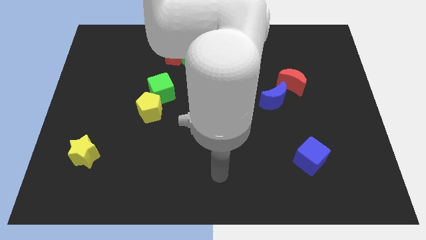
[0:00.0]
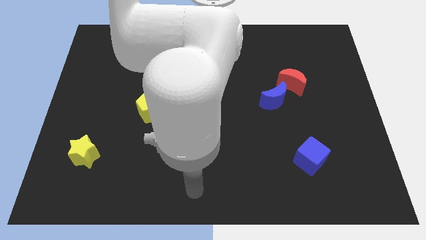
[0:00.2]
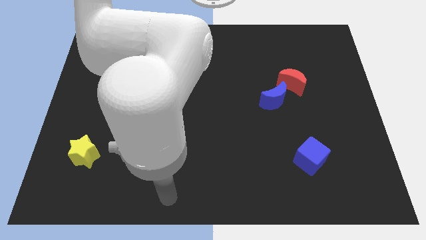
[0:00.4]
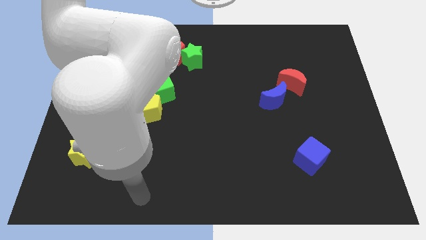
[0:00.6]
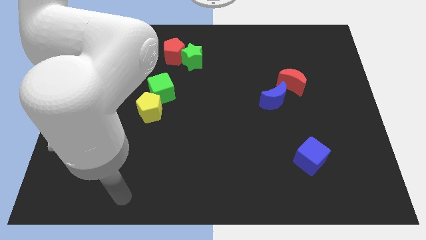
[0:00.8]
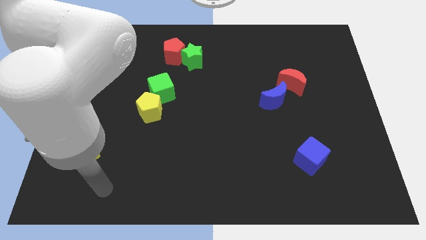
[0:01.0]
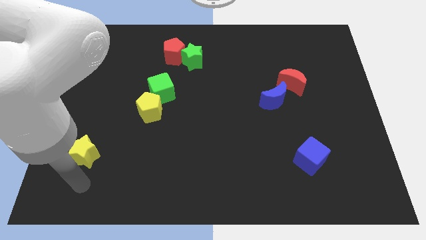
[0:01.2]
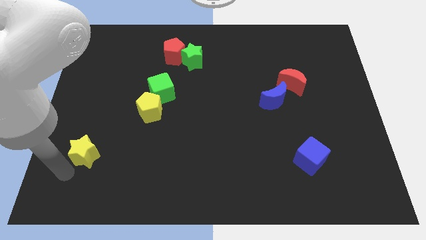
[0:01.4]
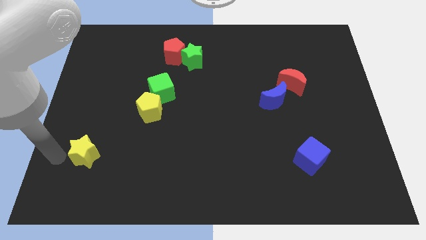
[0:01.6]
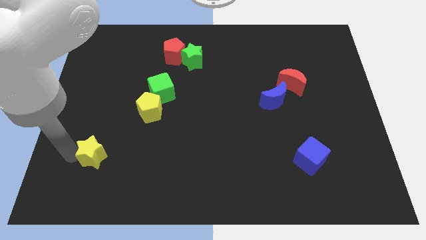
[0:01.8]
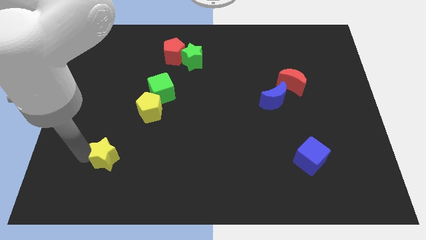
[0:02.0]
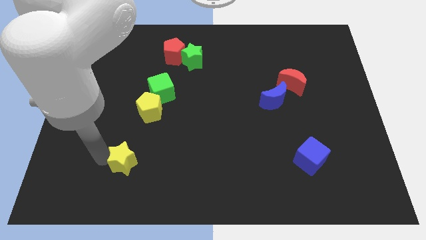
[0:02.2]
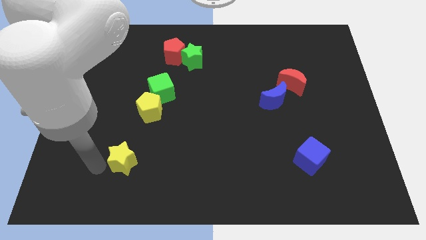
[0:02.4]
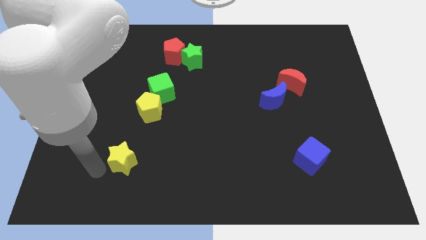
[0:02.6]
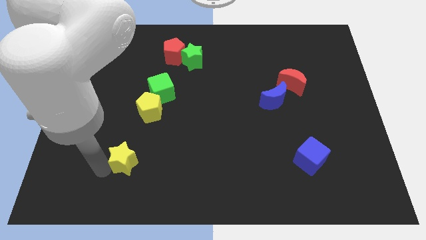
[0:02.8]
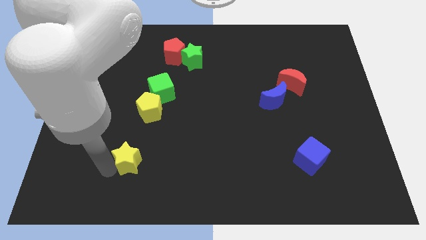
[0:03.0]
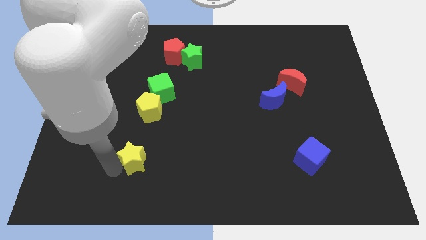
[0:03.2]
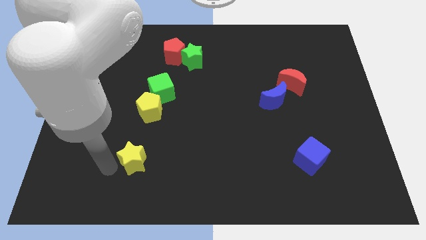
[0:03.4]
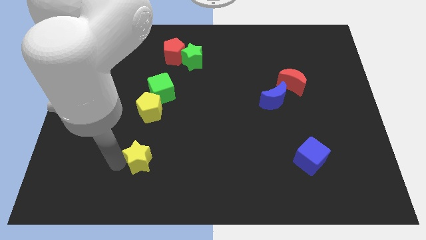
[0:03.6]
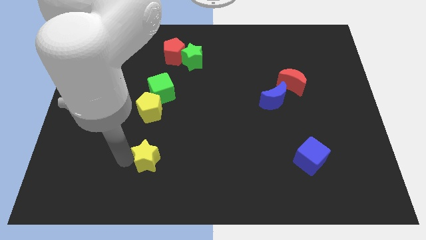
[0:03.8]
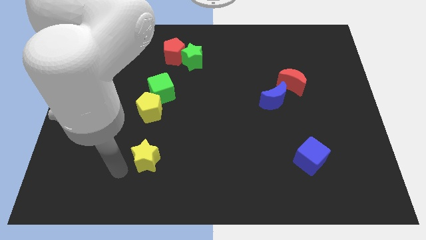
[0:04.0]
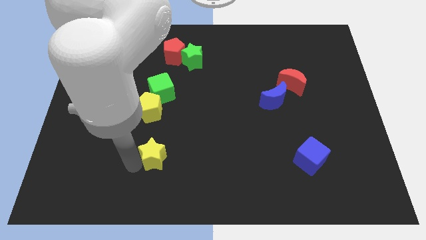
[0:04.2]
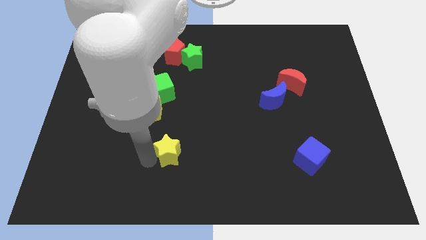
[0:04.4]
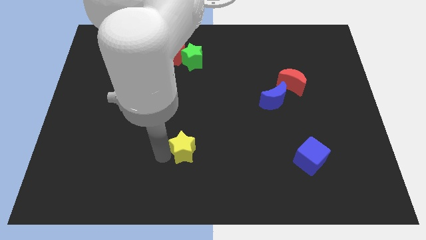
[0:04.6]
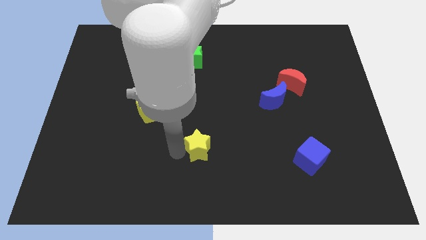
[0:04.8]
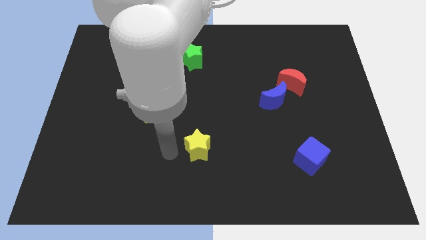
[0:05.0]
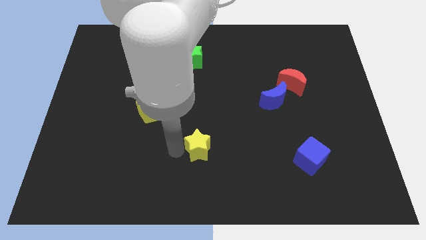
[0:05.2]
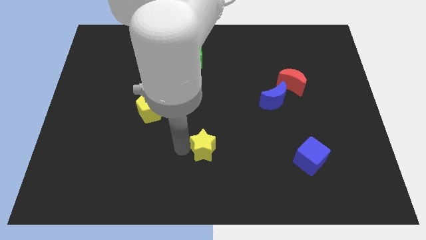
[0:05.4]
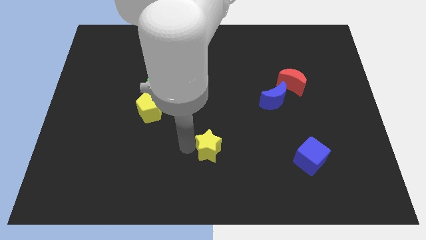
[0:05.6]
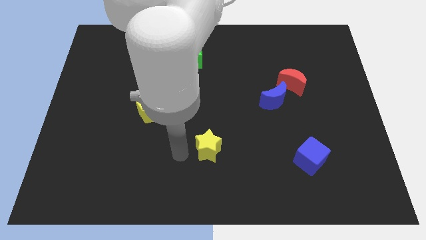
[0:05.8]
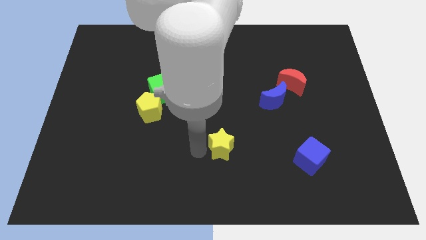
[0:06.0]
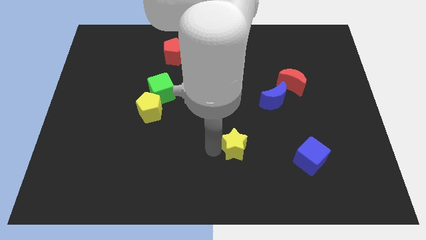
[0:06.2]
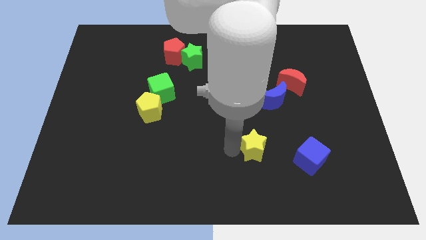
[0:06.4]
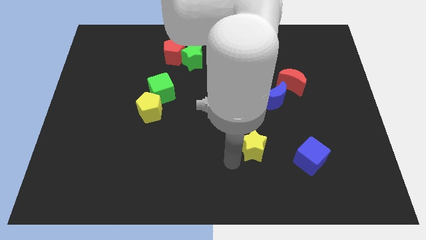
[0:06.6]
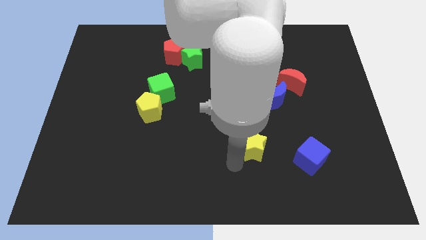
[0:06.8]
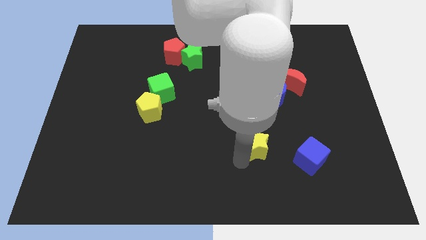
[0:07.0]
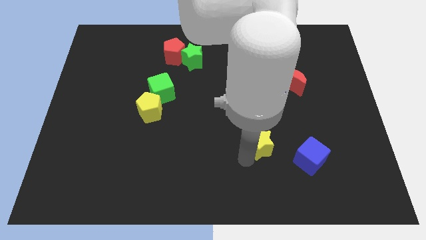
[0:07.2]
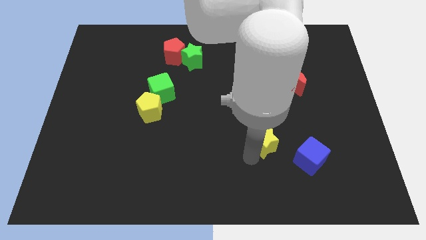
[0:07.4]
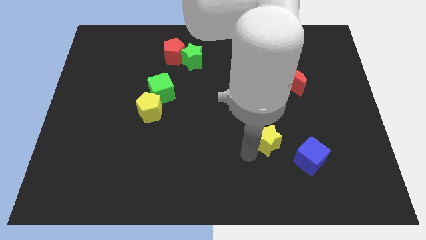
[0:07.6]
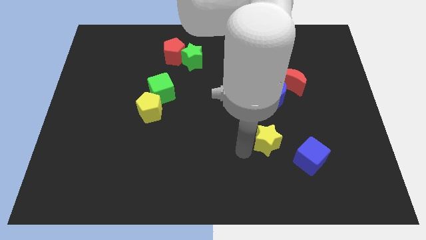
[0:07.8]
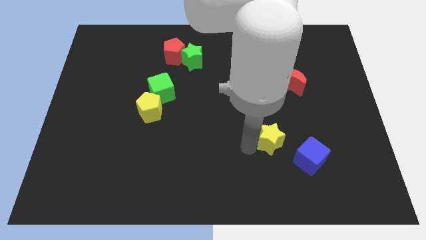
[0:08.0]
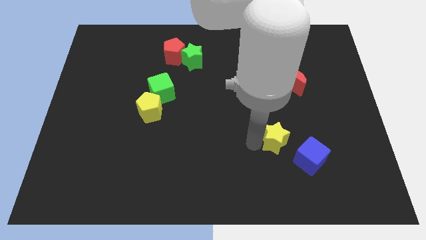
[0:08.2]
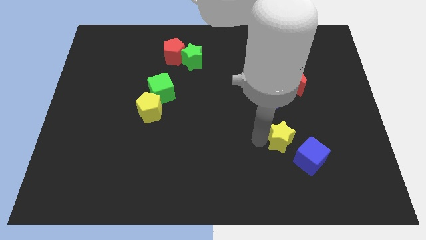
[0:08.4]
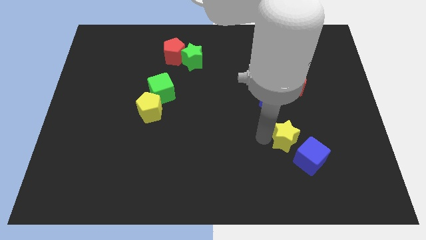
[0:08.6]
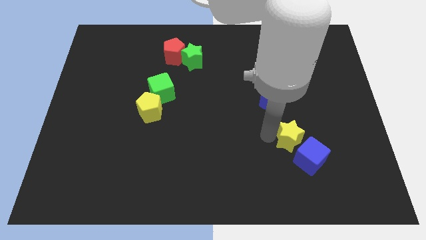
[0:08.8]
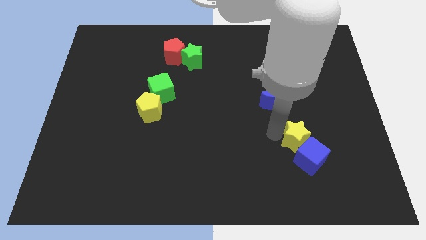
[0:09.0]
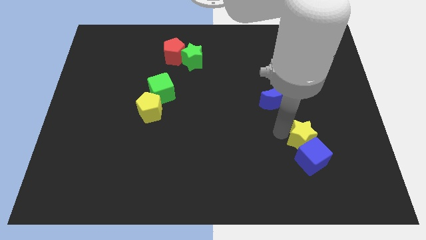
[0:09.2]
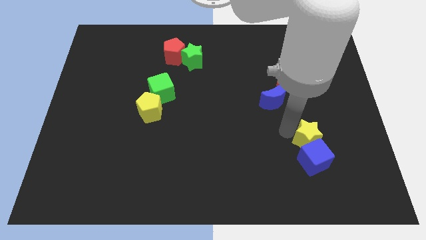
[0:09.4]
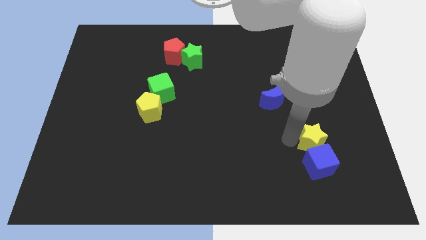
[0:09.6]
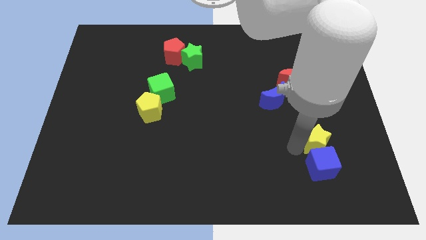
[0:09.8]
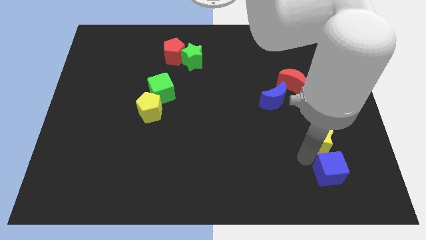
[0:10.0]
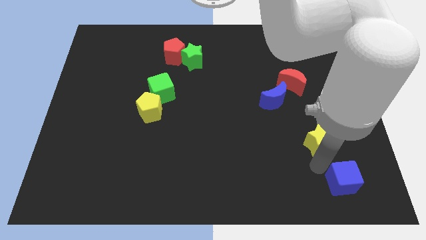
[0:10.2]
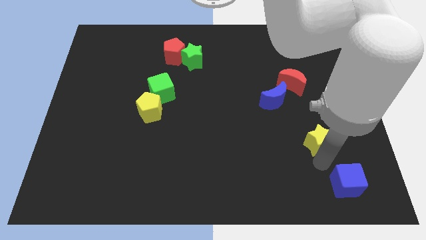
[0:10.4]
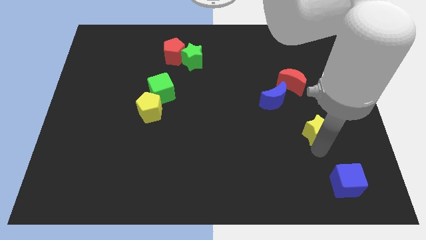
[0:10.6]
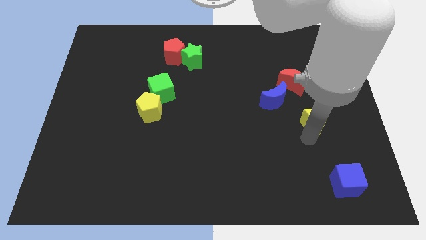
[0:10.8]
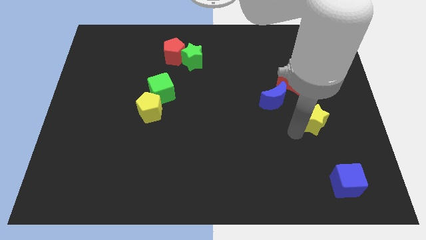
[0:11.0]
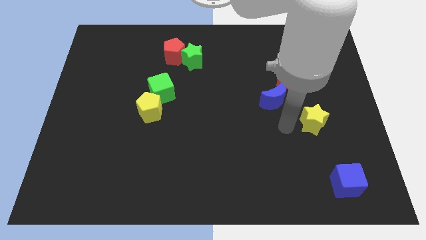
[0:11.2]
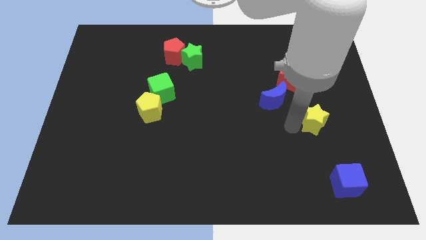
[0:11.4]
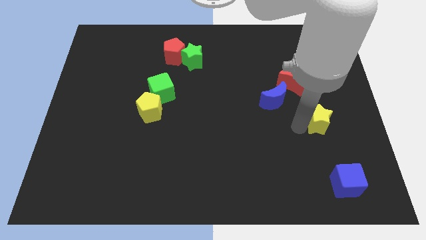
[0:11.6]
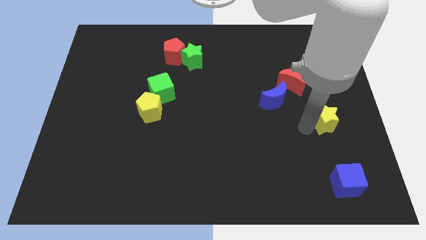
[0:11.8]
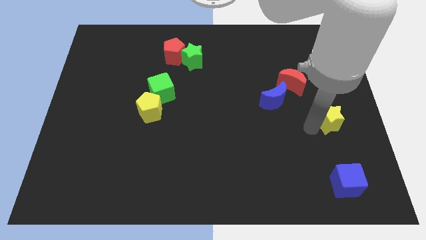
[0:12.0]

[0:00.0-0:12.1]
put the yellow star to the right side of the board

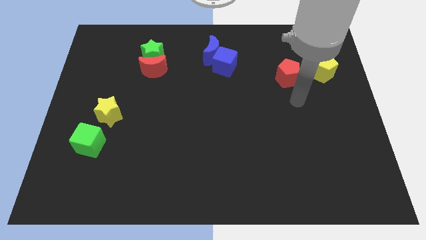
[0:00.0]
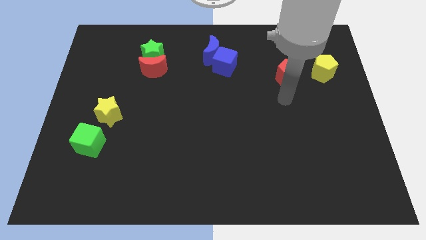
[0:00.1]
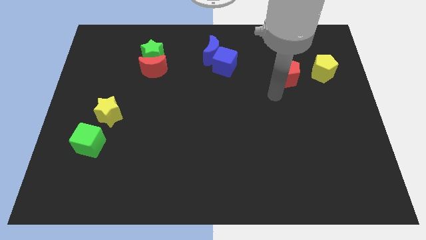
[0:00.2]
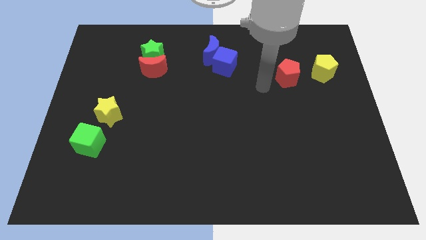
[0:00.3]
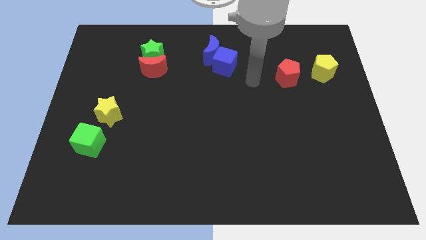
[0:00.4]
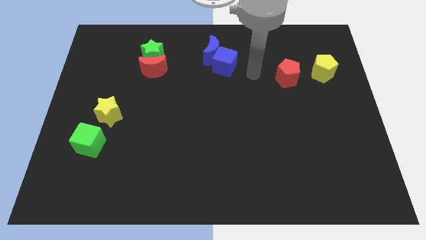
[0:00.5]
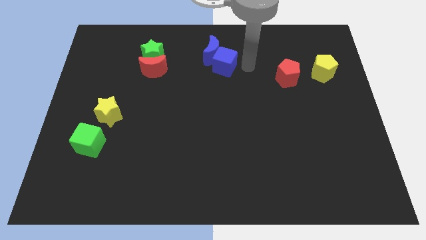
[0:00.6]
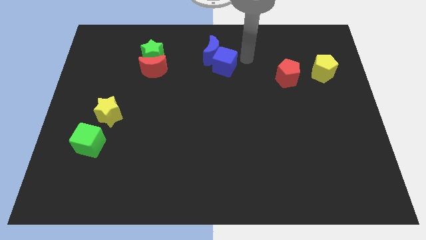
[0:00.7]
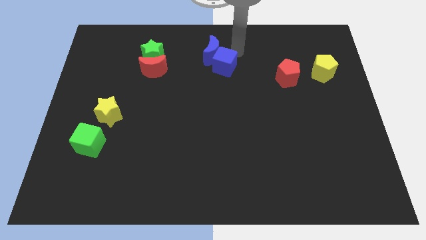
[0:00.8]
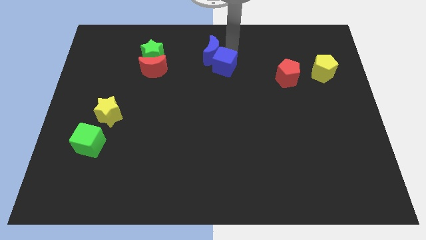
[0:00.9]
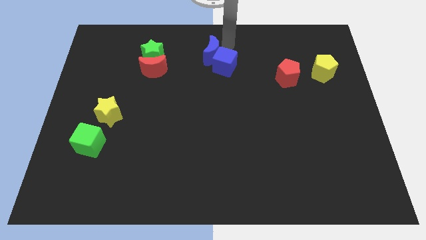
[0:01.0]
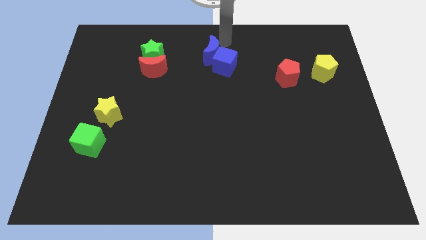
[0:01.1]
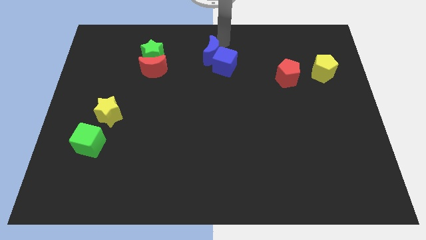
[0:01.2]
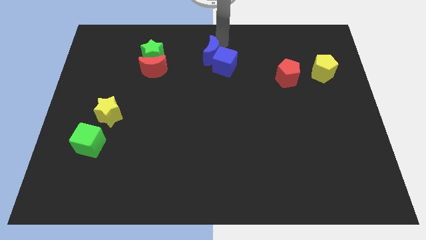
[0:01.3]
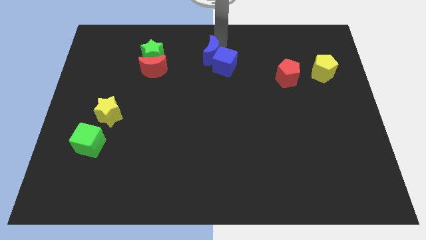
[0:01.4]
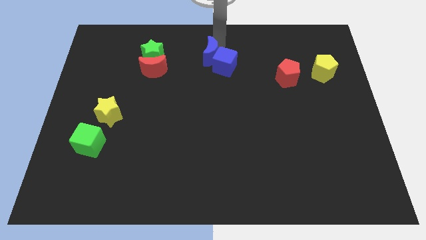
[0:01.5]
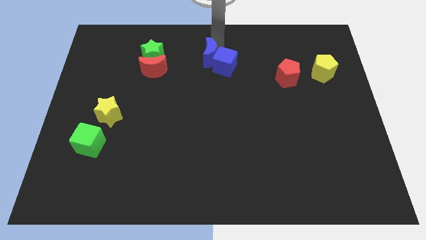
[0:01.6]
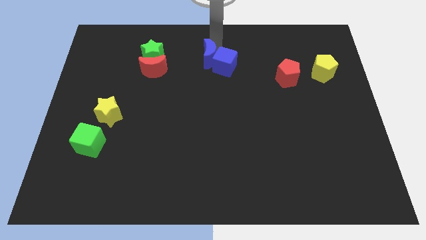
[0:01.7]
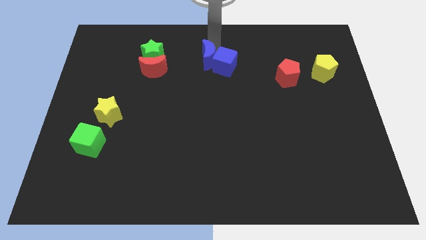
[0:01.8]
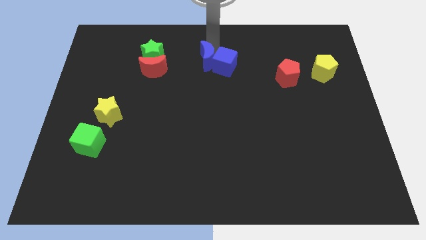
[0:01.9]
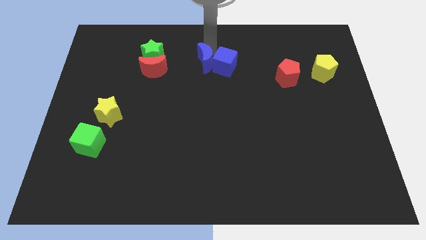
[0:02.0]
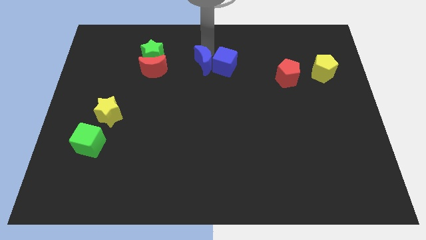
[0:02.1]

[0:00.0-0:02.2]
slide the blue moon to the middle
